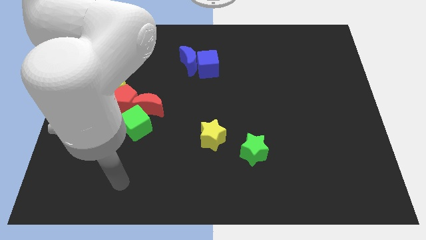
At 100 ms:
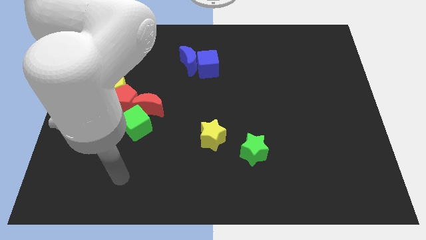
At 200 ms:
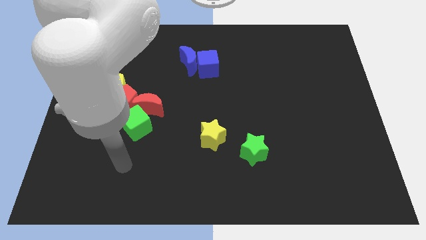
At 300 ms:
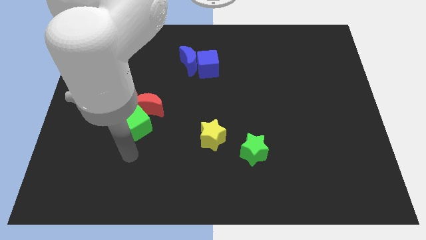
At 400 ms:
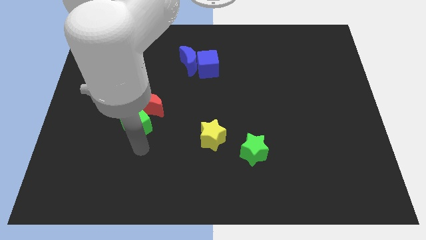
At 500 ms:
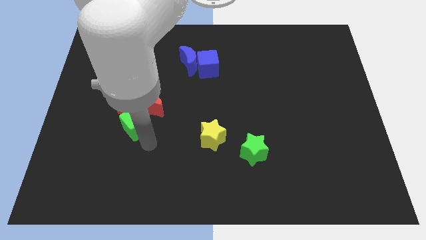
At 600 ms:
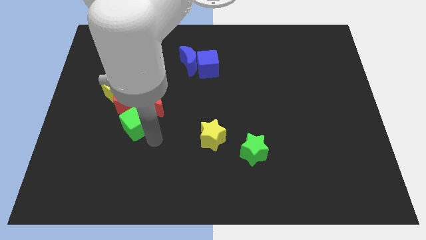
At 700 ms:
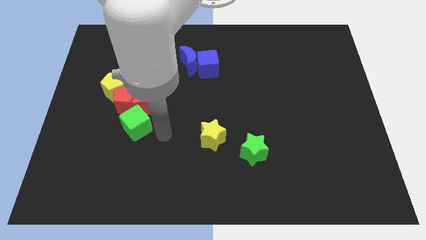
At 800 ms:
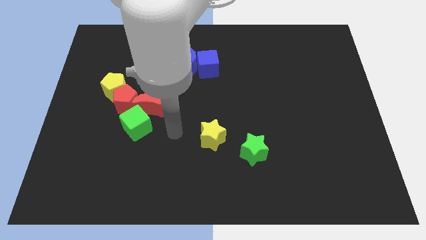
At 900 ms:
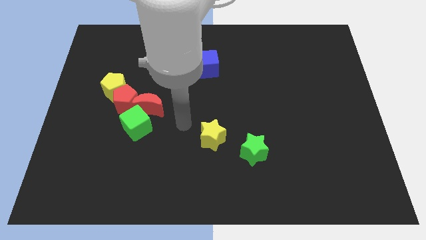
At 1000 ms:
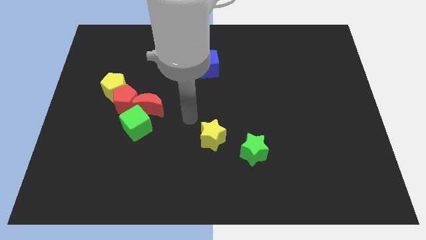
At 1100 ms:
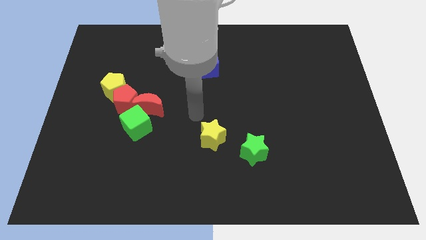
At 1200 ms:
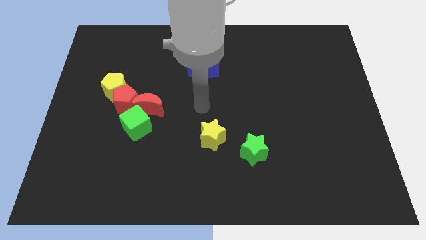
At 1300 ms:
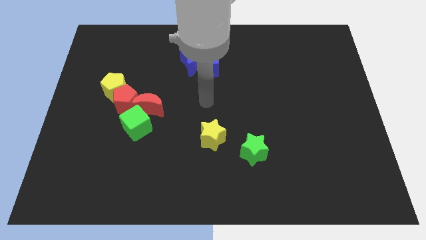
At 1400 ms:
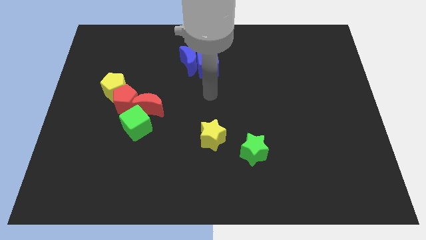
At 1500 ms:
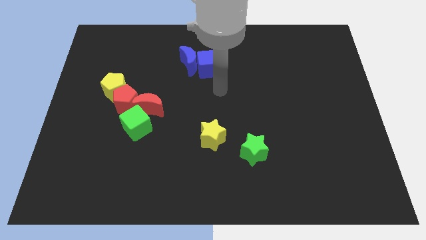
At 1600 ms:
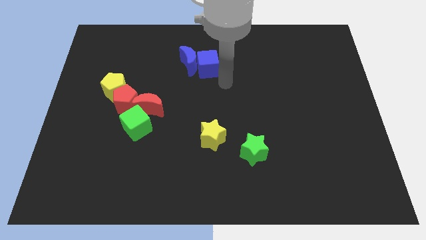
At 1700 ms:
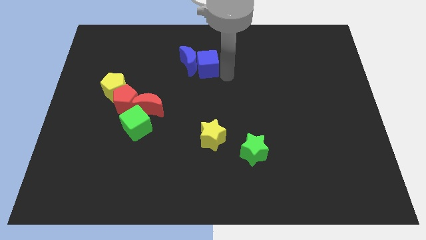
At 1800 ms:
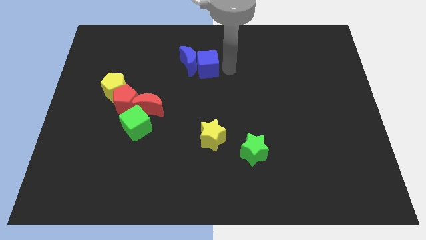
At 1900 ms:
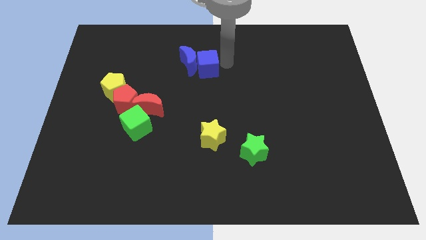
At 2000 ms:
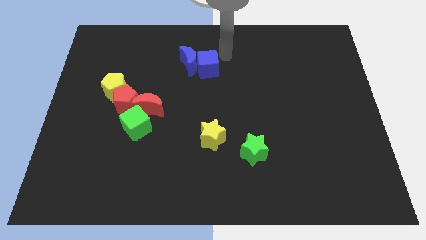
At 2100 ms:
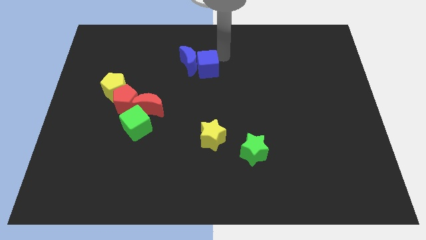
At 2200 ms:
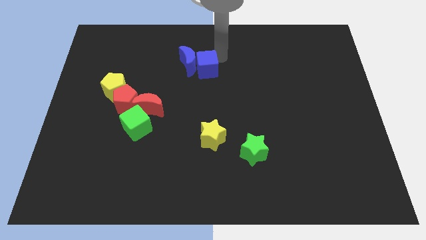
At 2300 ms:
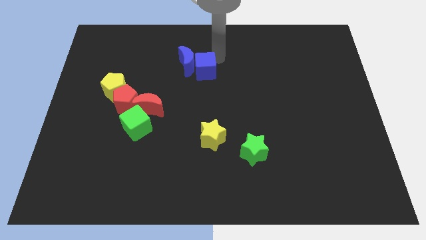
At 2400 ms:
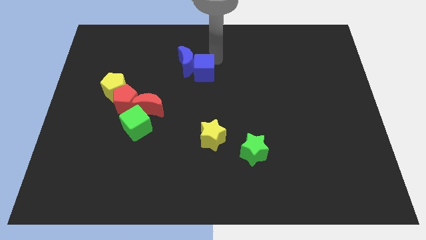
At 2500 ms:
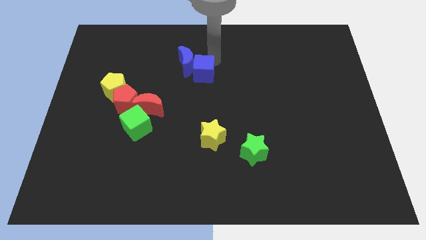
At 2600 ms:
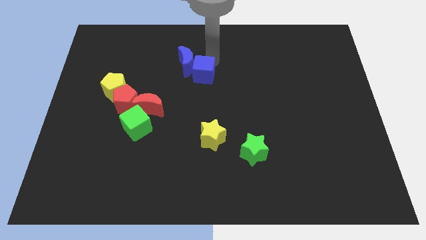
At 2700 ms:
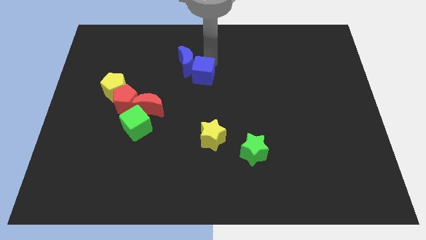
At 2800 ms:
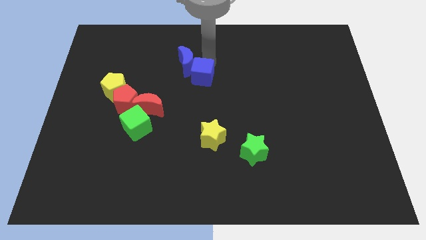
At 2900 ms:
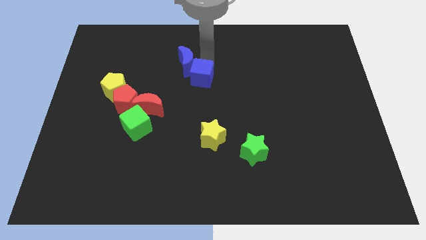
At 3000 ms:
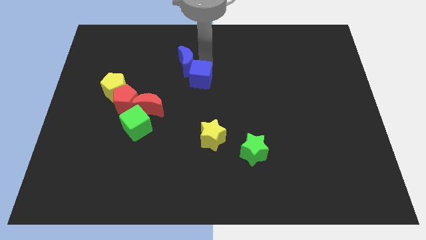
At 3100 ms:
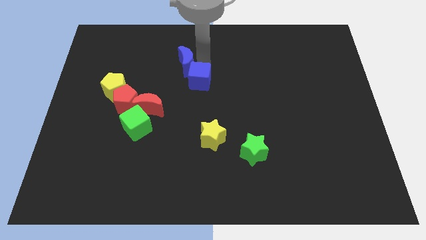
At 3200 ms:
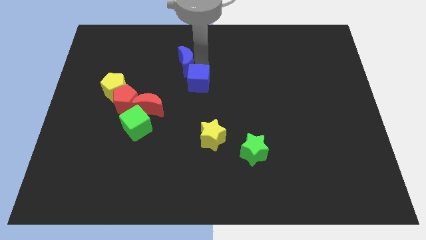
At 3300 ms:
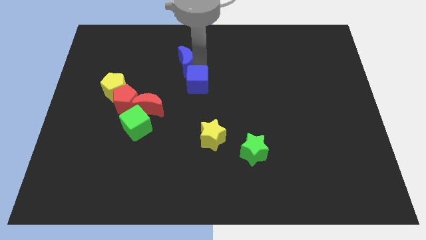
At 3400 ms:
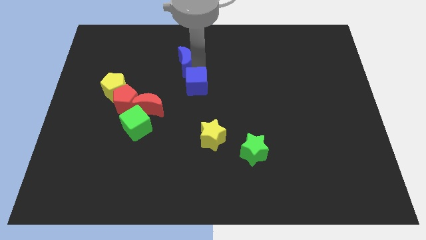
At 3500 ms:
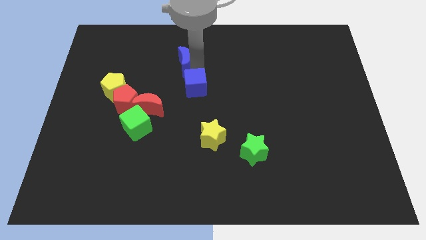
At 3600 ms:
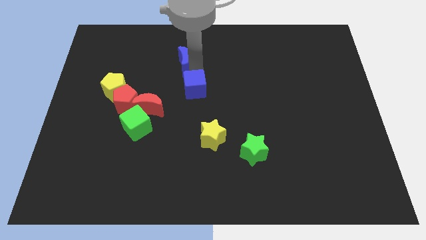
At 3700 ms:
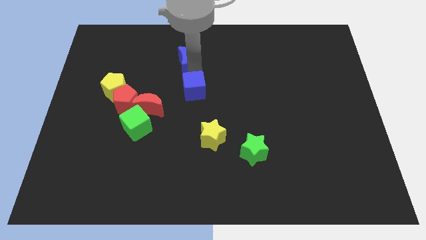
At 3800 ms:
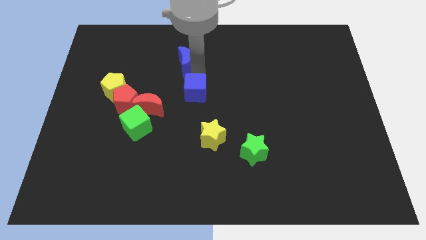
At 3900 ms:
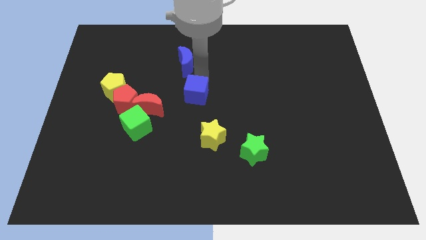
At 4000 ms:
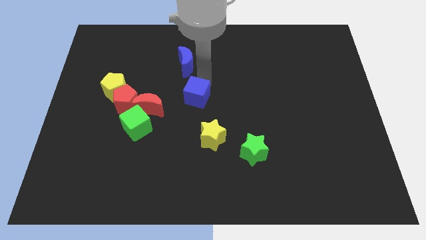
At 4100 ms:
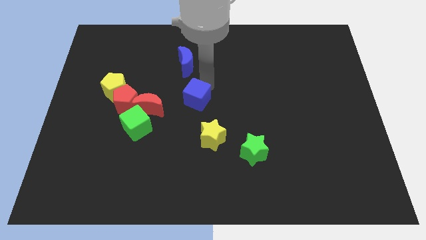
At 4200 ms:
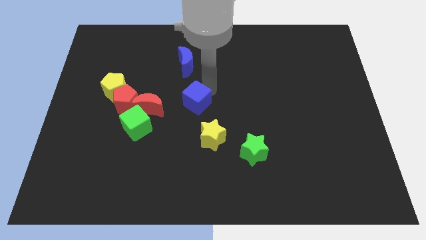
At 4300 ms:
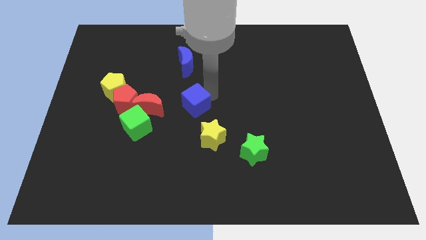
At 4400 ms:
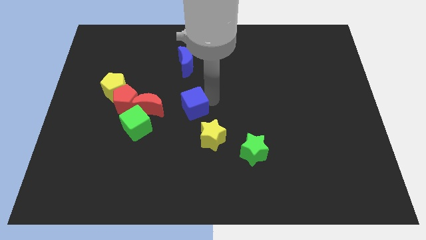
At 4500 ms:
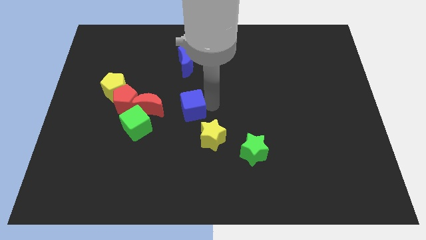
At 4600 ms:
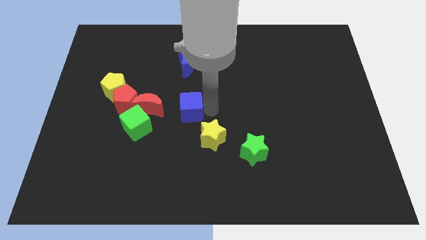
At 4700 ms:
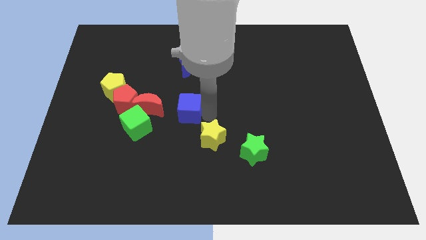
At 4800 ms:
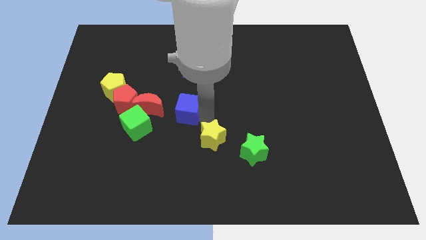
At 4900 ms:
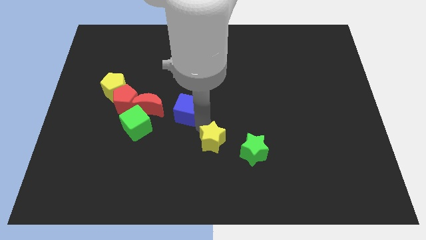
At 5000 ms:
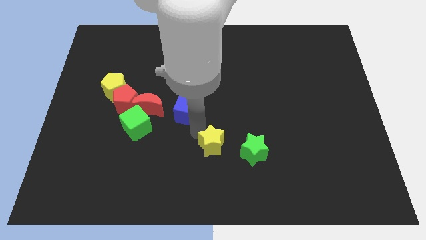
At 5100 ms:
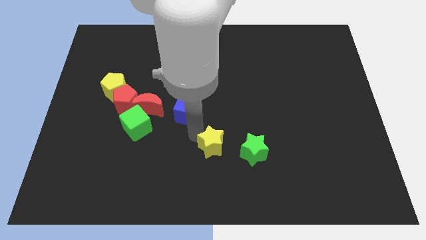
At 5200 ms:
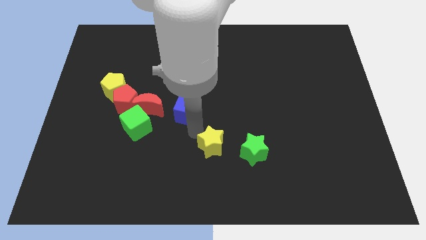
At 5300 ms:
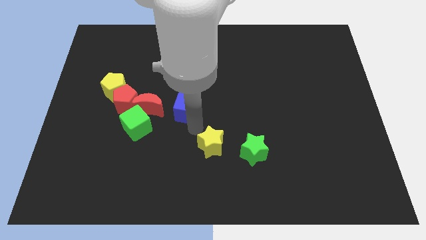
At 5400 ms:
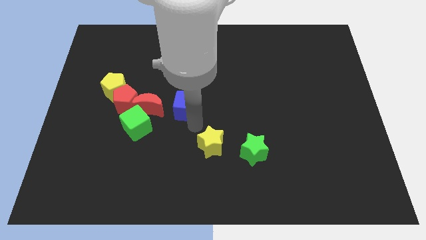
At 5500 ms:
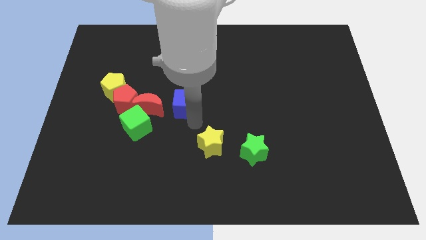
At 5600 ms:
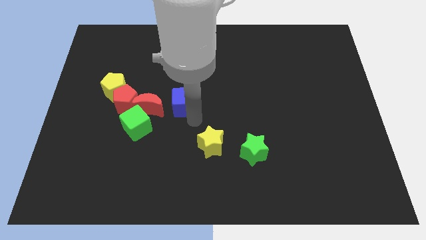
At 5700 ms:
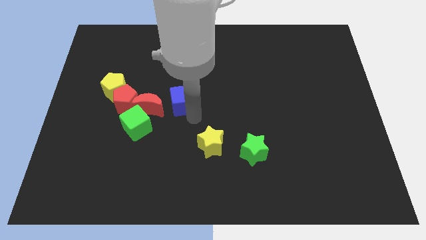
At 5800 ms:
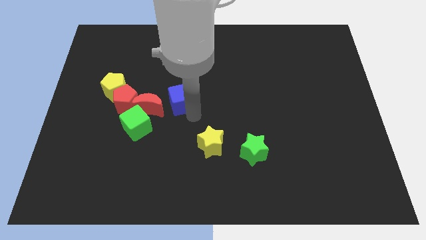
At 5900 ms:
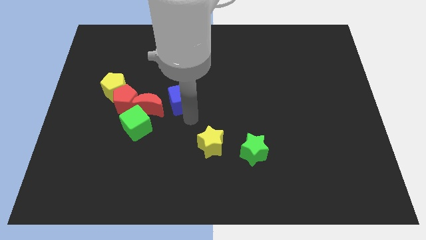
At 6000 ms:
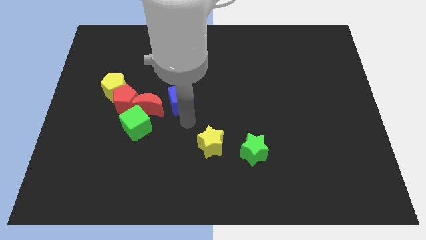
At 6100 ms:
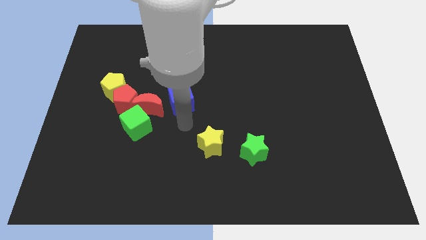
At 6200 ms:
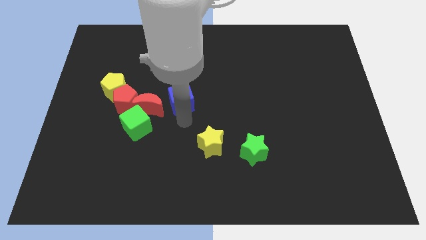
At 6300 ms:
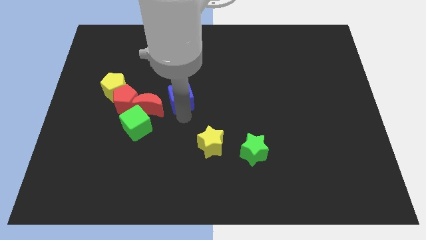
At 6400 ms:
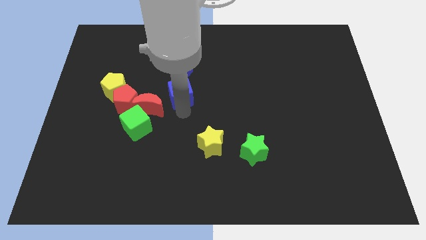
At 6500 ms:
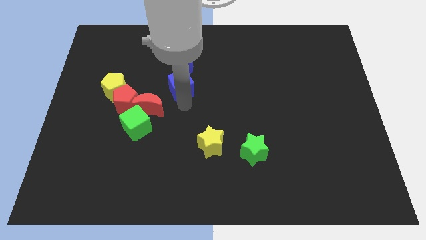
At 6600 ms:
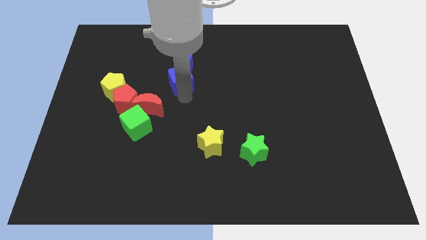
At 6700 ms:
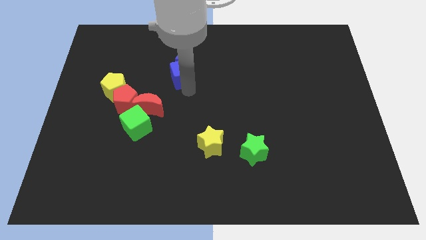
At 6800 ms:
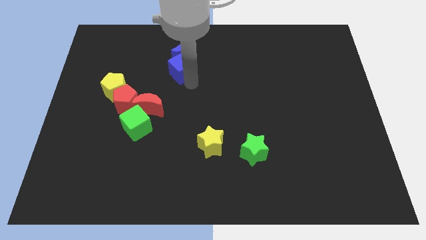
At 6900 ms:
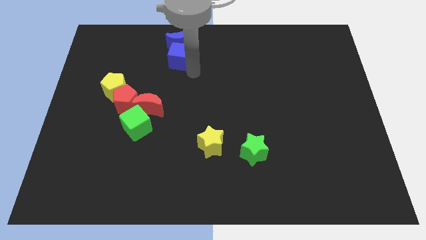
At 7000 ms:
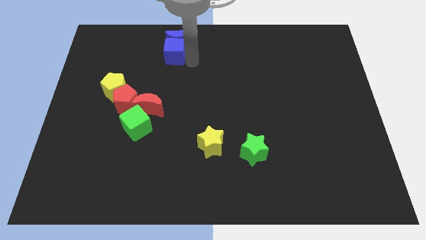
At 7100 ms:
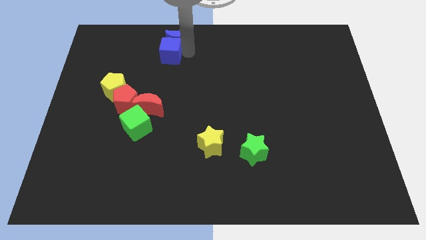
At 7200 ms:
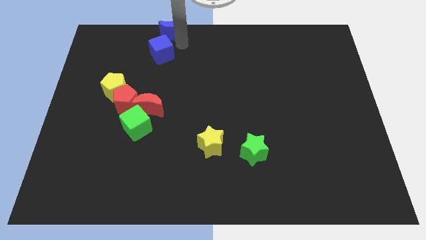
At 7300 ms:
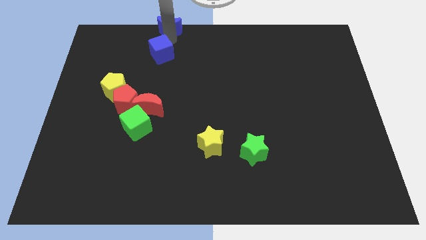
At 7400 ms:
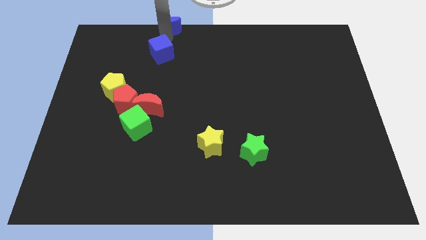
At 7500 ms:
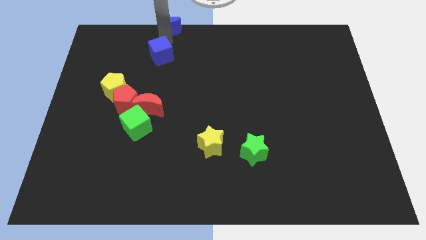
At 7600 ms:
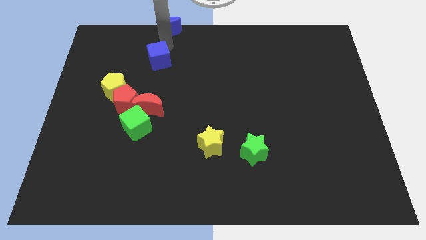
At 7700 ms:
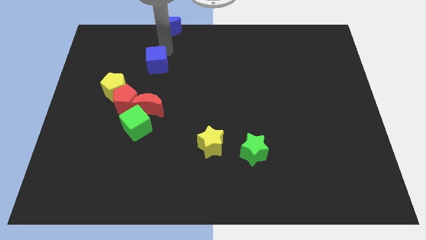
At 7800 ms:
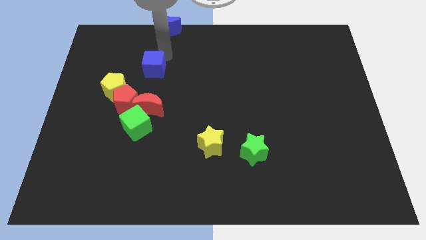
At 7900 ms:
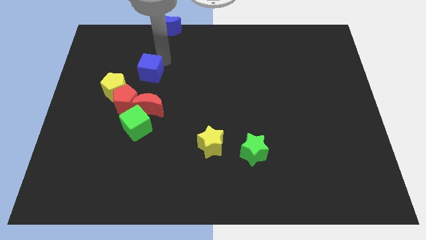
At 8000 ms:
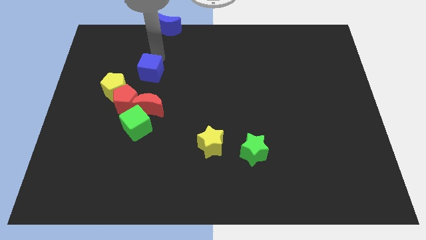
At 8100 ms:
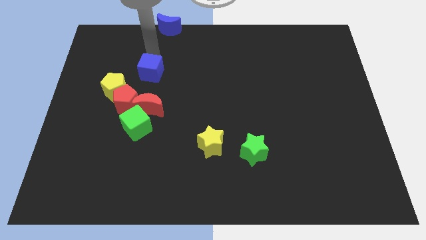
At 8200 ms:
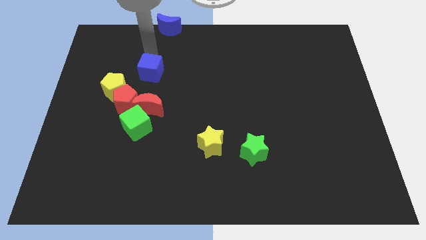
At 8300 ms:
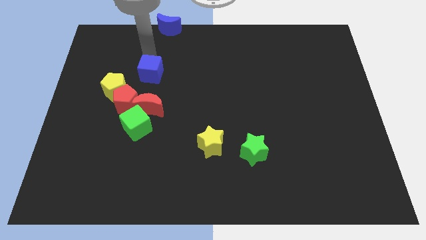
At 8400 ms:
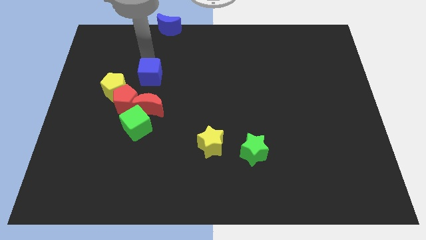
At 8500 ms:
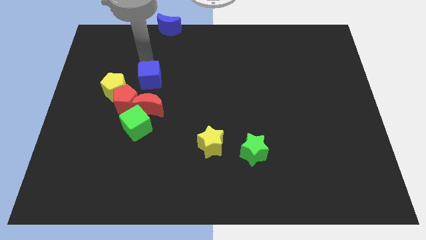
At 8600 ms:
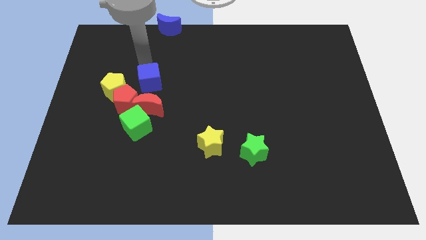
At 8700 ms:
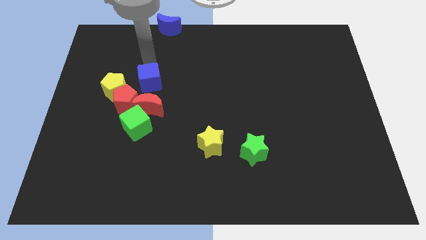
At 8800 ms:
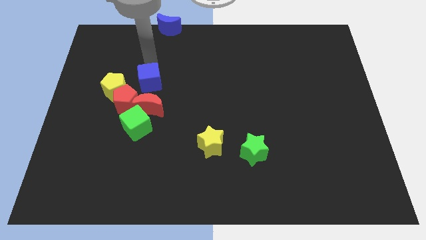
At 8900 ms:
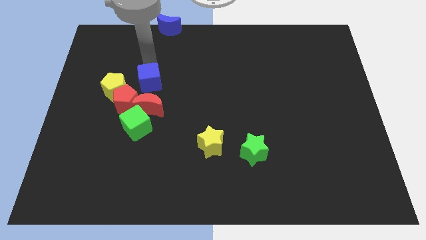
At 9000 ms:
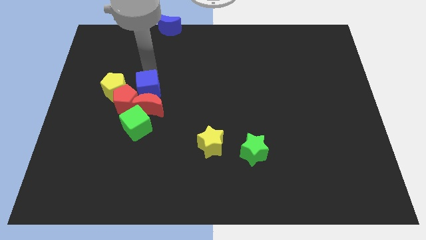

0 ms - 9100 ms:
slide the blue cube close to the red moon
